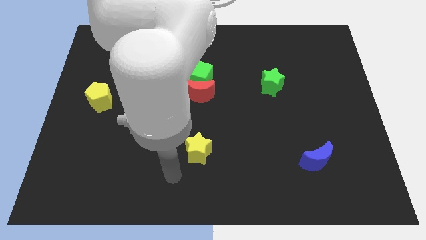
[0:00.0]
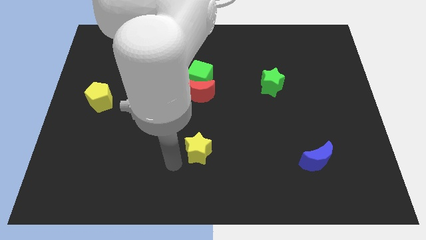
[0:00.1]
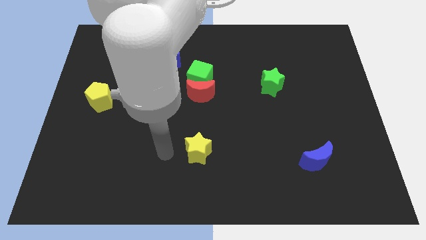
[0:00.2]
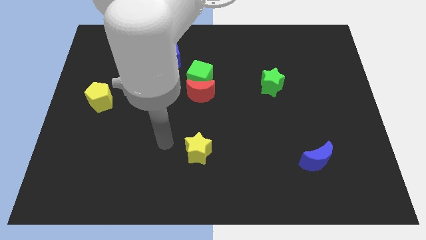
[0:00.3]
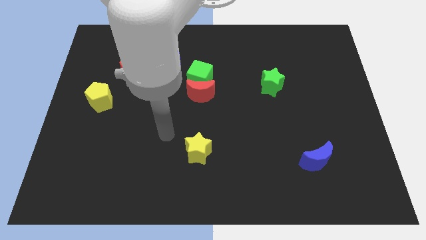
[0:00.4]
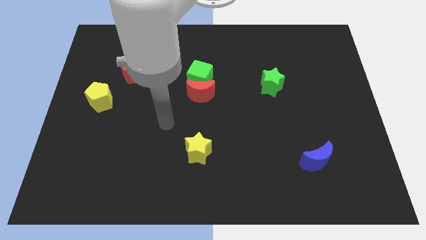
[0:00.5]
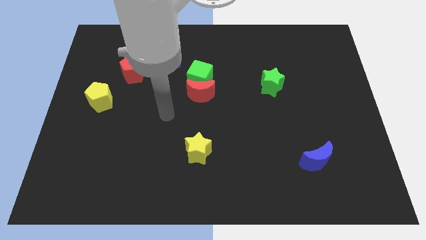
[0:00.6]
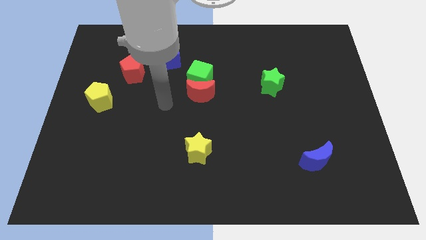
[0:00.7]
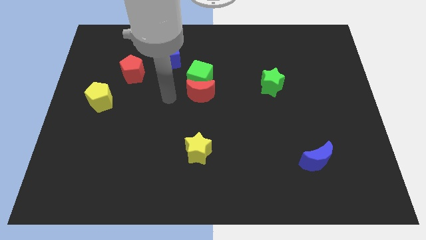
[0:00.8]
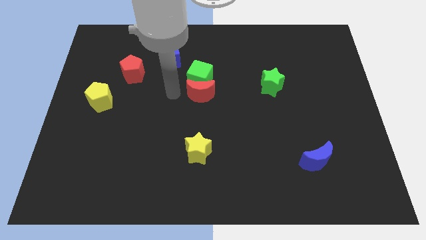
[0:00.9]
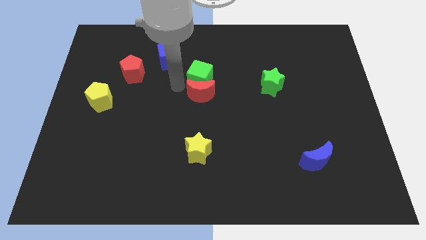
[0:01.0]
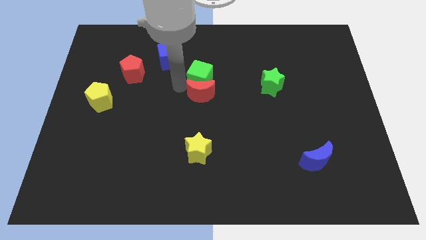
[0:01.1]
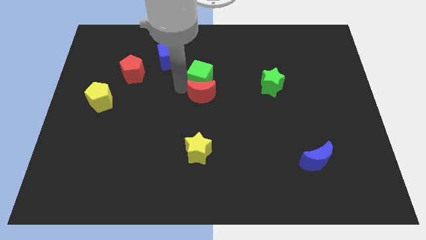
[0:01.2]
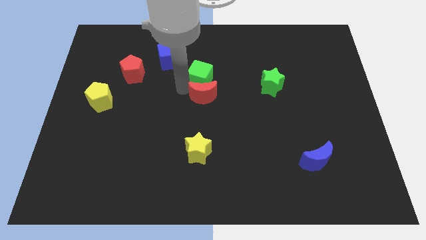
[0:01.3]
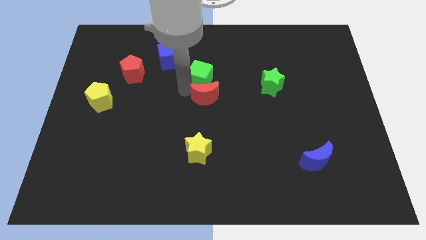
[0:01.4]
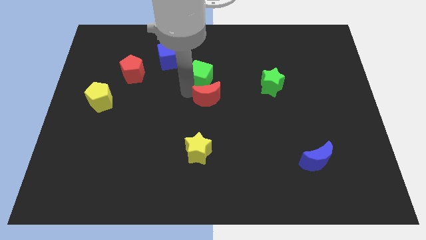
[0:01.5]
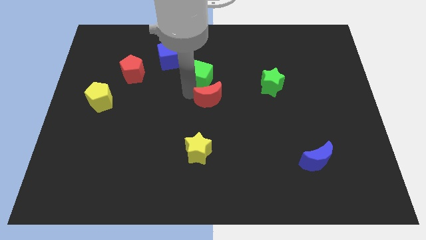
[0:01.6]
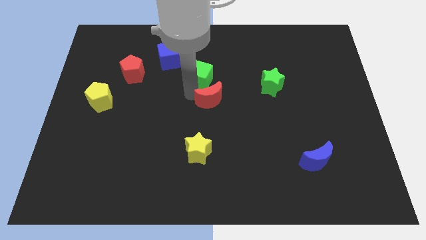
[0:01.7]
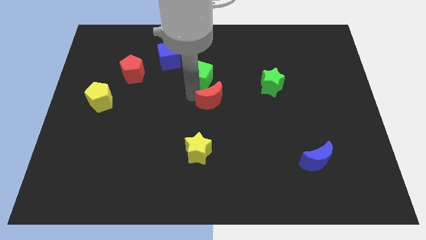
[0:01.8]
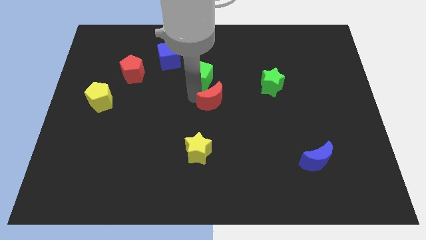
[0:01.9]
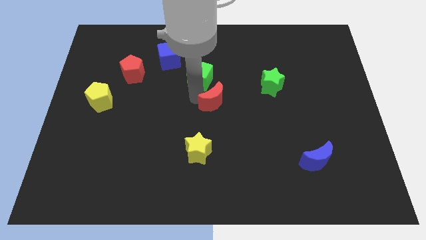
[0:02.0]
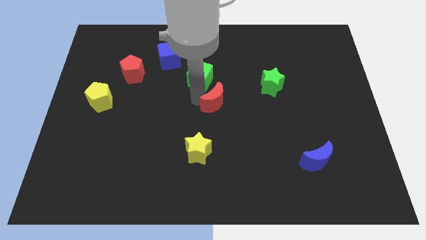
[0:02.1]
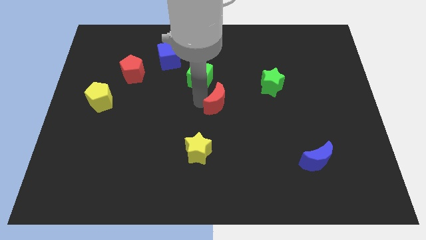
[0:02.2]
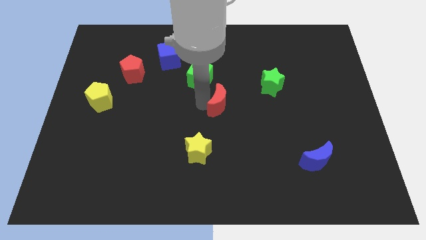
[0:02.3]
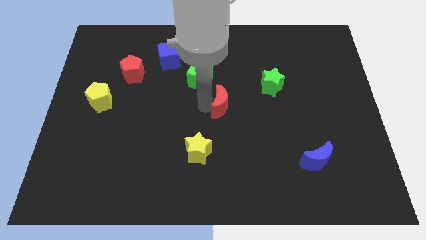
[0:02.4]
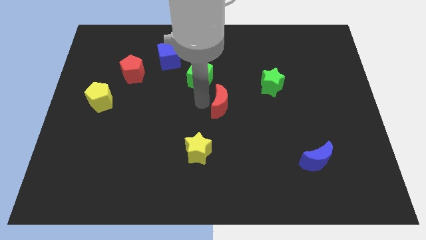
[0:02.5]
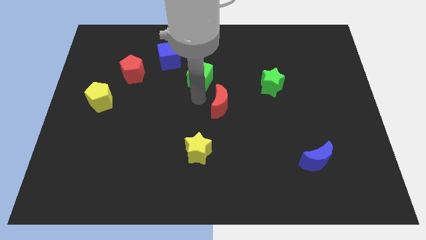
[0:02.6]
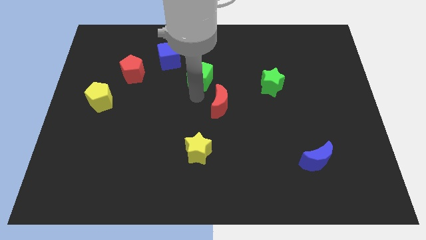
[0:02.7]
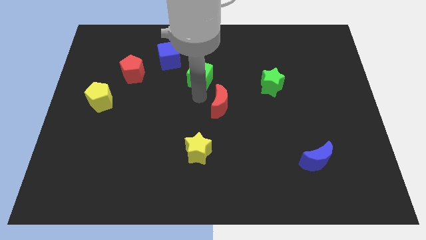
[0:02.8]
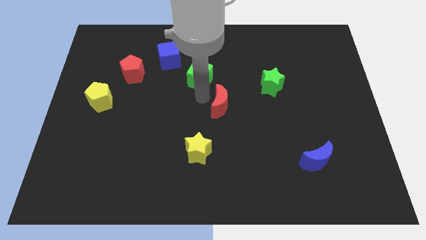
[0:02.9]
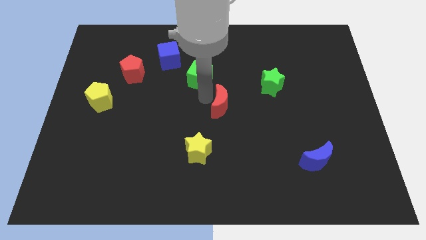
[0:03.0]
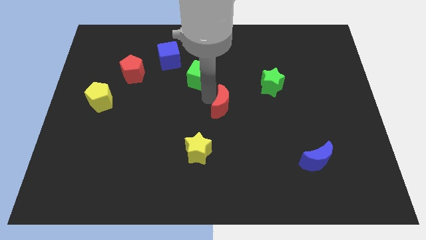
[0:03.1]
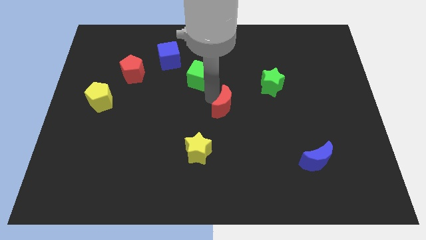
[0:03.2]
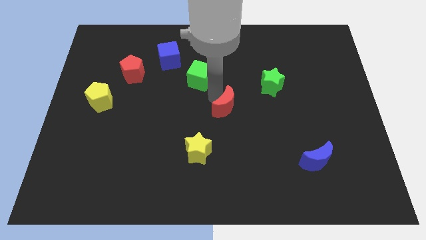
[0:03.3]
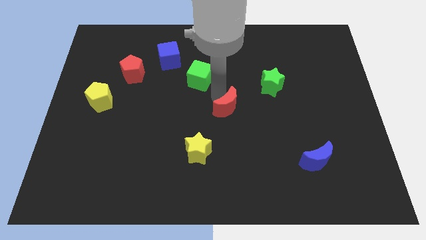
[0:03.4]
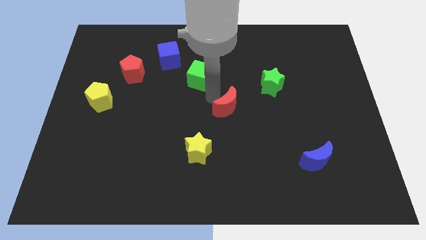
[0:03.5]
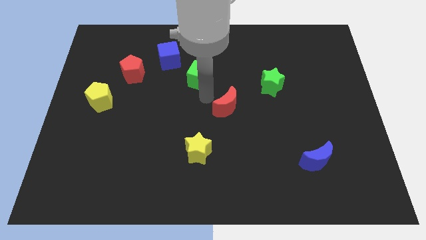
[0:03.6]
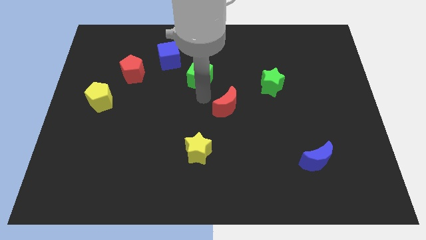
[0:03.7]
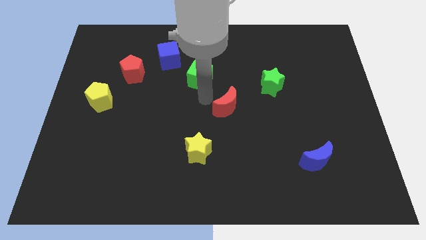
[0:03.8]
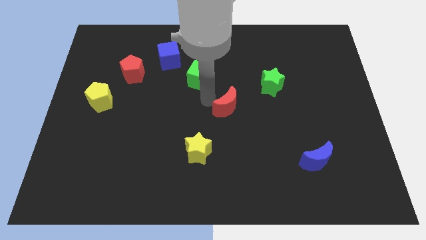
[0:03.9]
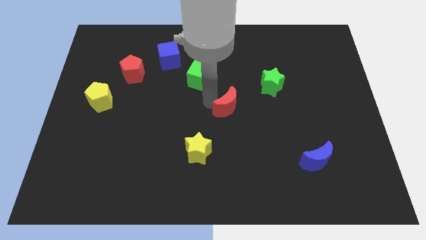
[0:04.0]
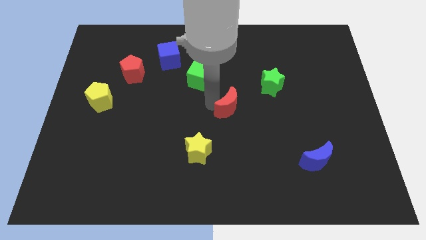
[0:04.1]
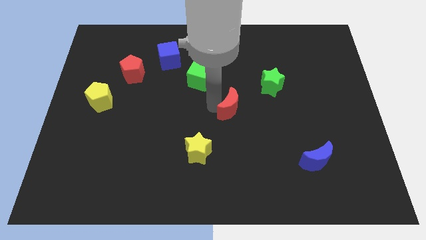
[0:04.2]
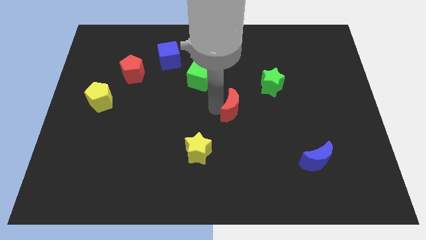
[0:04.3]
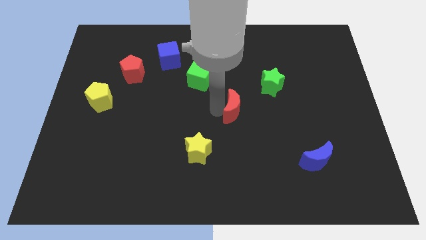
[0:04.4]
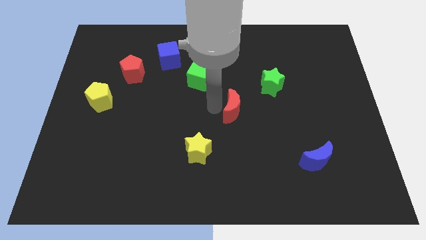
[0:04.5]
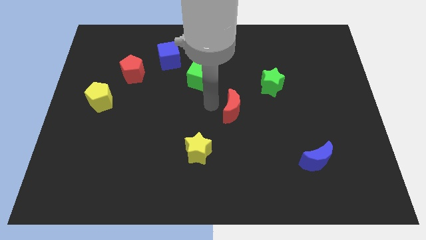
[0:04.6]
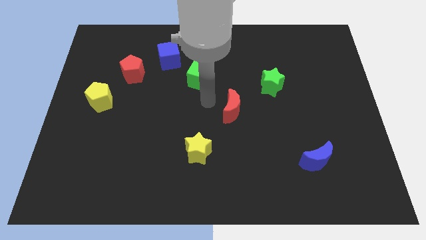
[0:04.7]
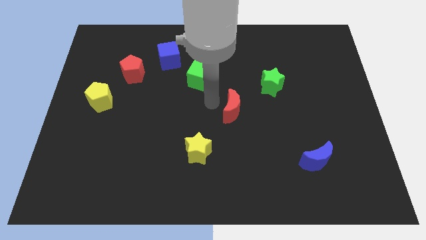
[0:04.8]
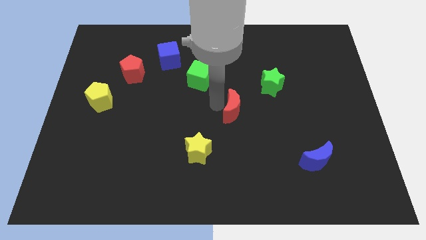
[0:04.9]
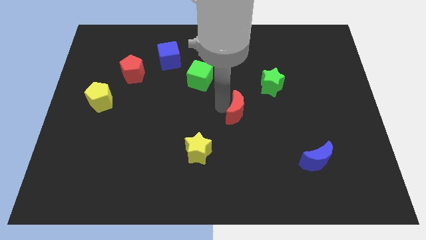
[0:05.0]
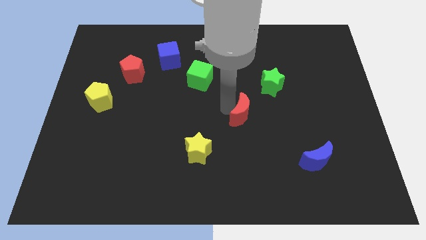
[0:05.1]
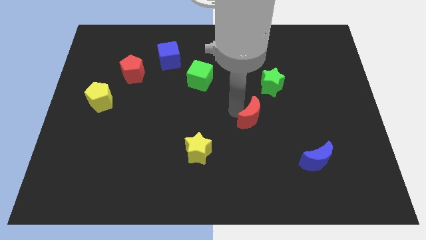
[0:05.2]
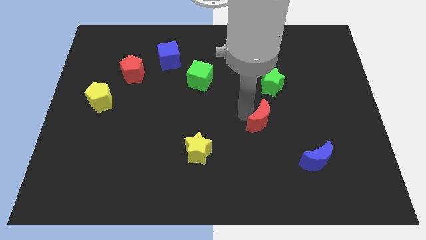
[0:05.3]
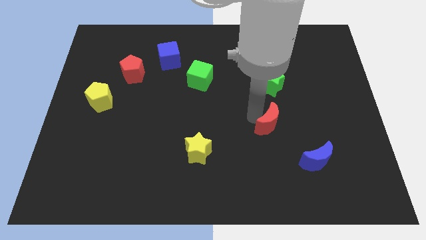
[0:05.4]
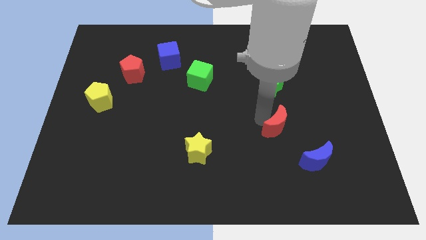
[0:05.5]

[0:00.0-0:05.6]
slide the red moon to the top left of the blue moon

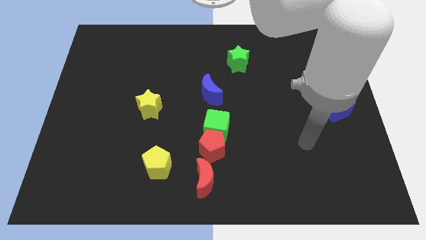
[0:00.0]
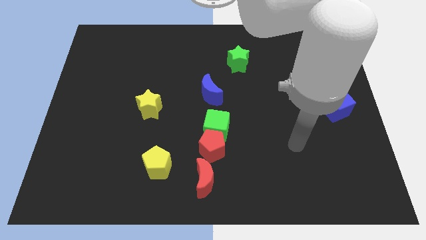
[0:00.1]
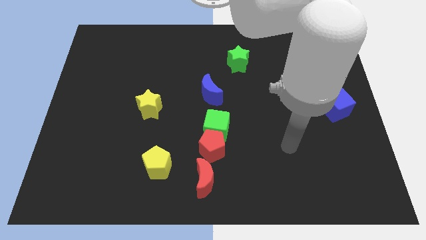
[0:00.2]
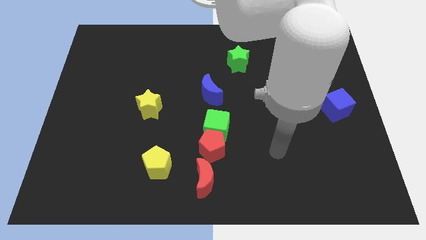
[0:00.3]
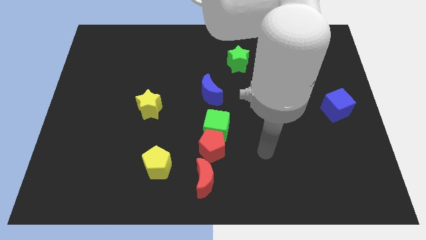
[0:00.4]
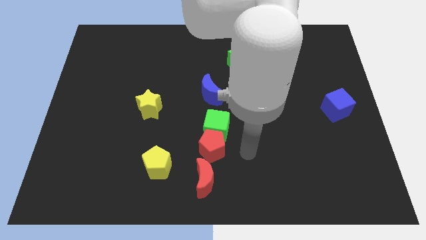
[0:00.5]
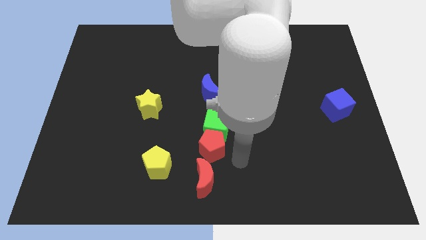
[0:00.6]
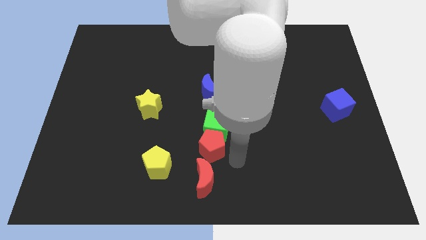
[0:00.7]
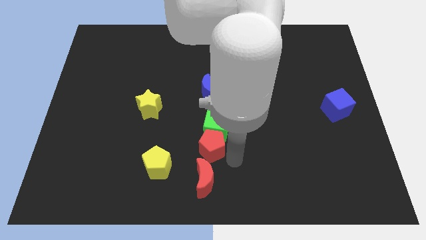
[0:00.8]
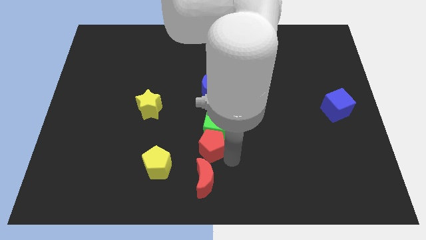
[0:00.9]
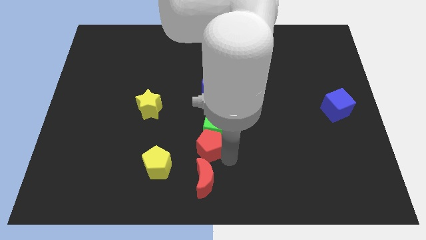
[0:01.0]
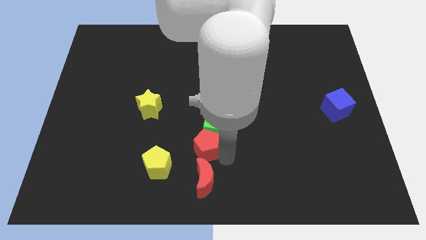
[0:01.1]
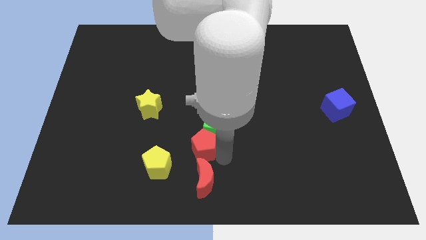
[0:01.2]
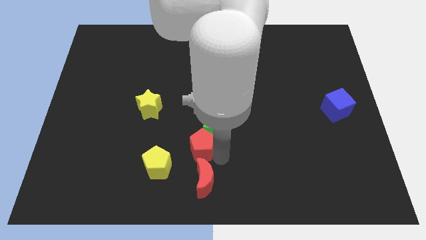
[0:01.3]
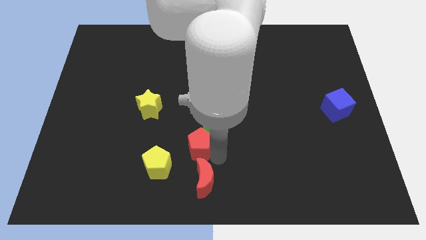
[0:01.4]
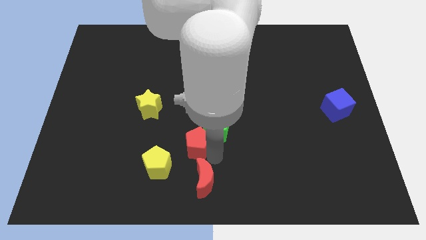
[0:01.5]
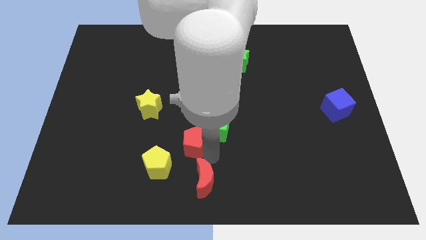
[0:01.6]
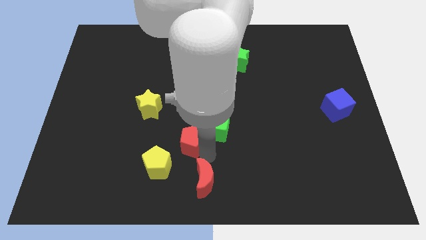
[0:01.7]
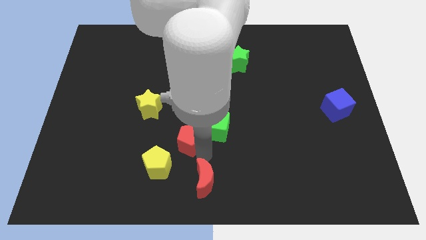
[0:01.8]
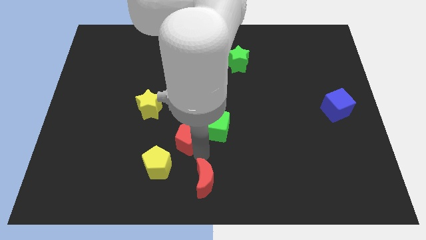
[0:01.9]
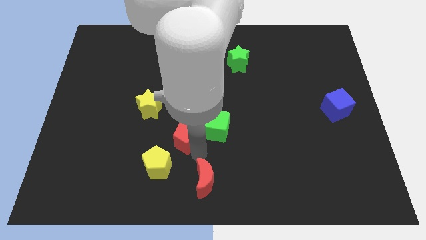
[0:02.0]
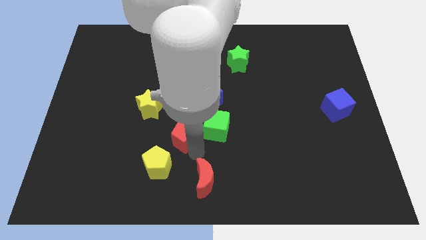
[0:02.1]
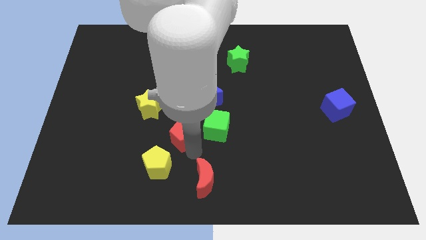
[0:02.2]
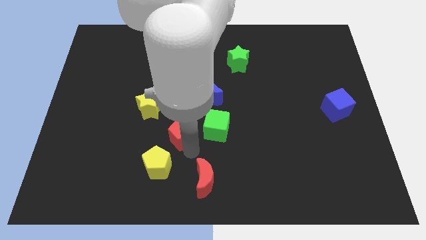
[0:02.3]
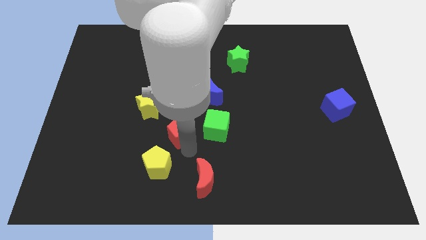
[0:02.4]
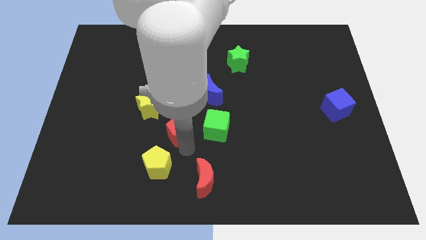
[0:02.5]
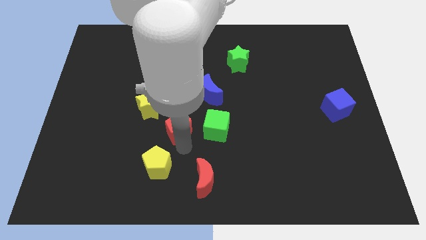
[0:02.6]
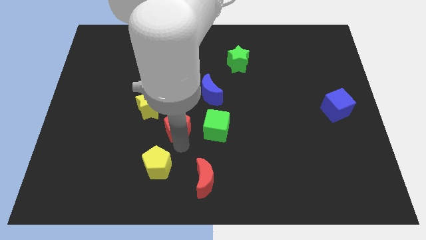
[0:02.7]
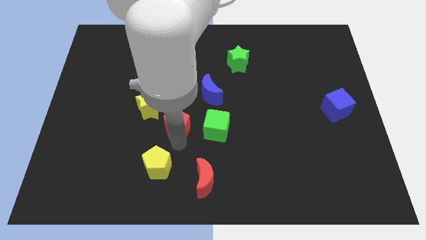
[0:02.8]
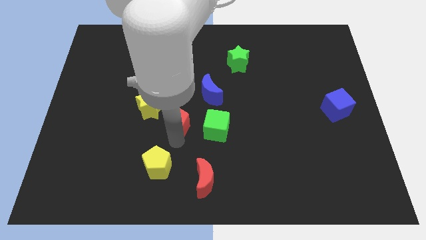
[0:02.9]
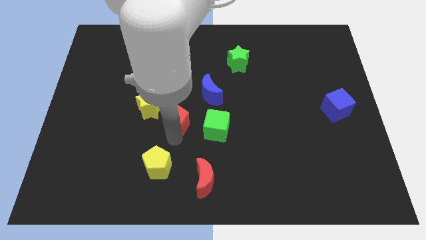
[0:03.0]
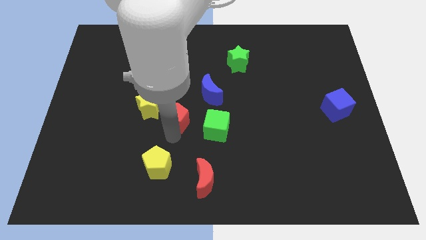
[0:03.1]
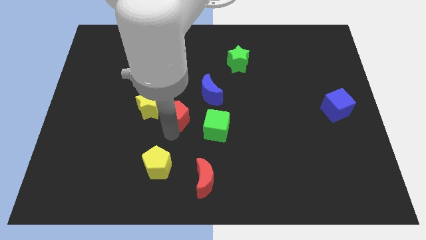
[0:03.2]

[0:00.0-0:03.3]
push the red pentagon to the top left side of the green cube
